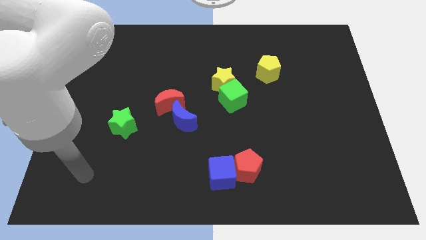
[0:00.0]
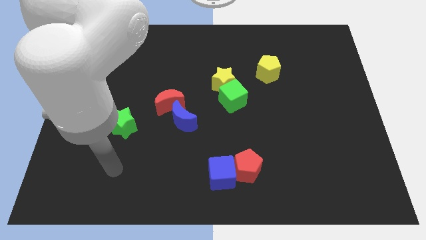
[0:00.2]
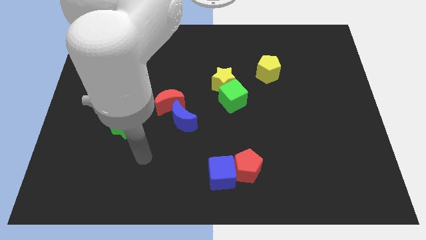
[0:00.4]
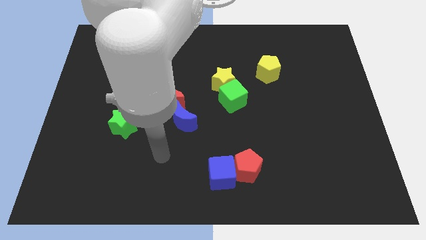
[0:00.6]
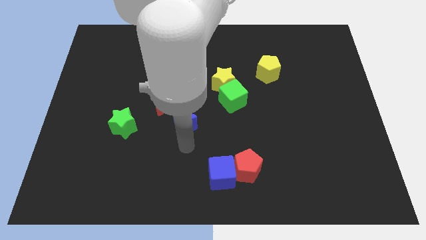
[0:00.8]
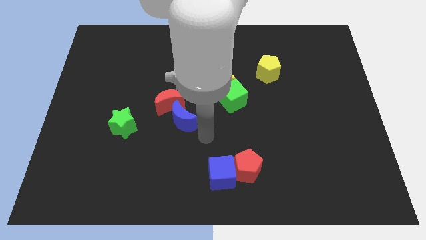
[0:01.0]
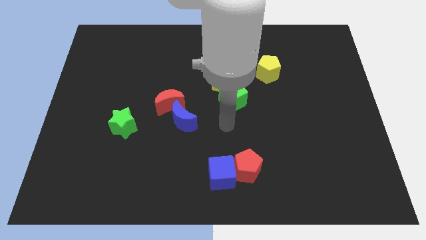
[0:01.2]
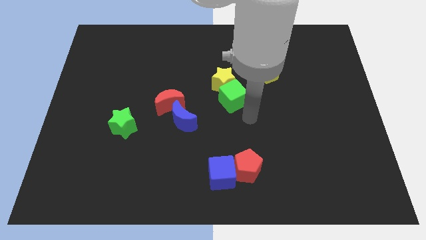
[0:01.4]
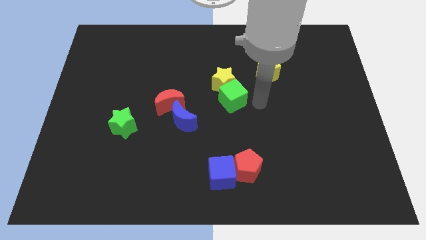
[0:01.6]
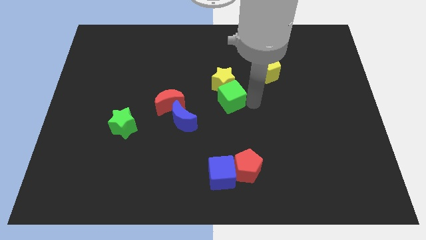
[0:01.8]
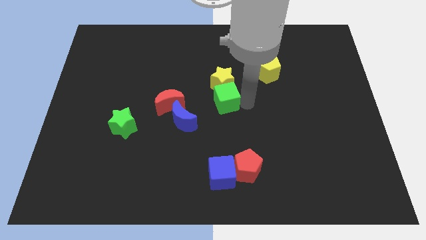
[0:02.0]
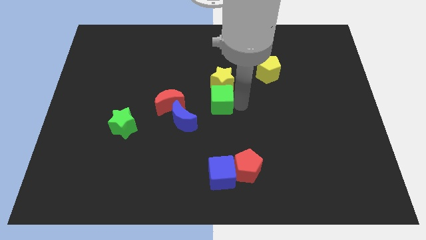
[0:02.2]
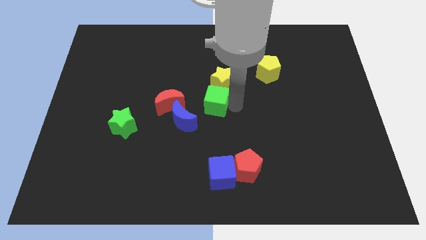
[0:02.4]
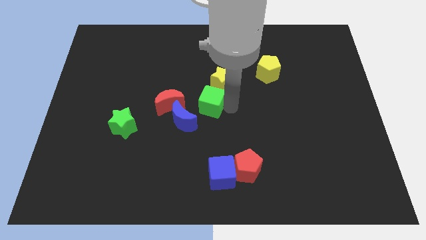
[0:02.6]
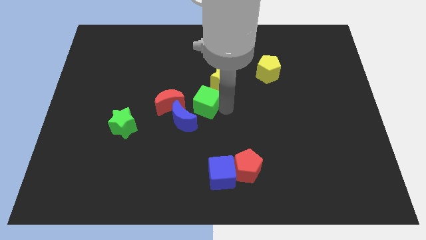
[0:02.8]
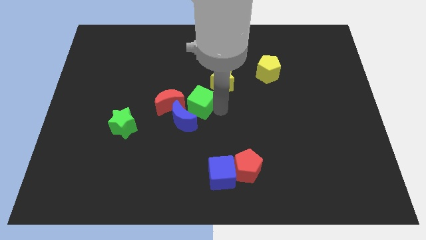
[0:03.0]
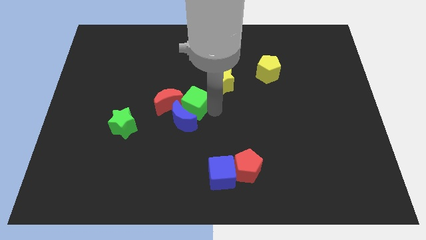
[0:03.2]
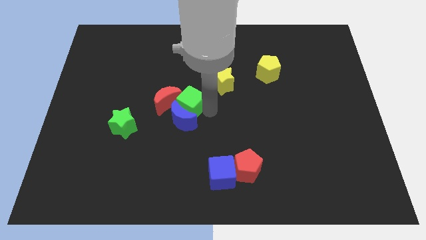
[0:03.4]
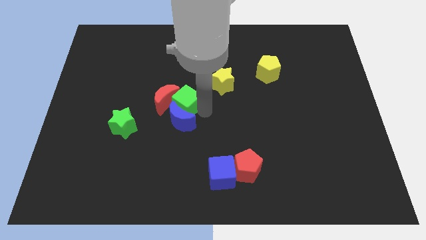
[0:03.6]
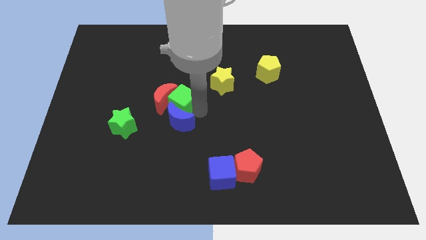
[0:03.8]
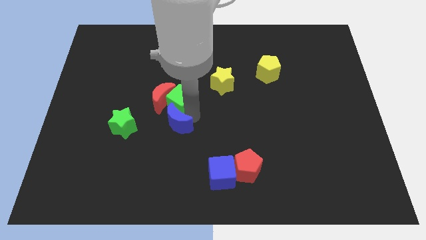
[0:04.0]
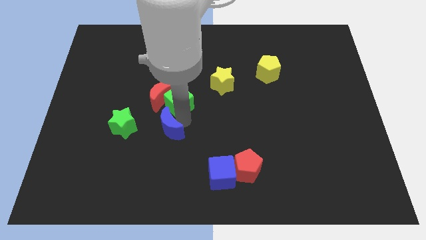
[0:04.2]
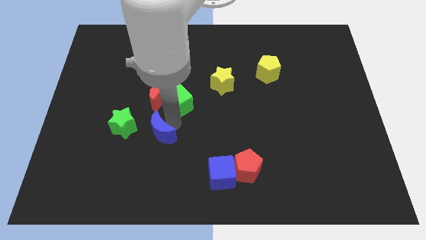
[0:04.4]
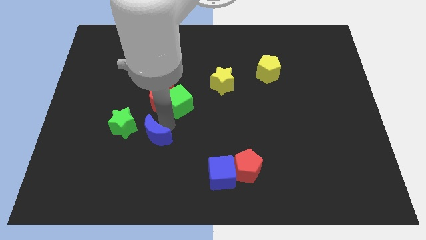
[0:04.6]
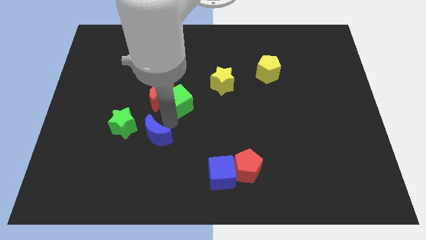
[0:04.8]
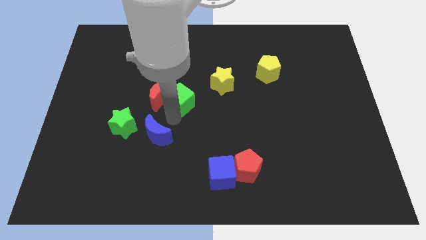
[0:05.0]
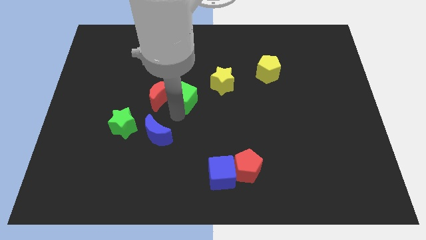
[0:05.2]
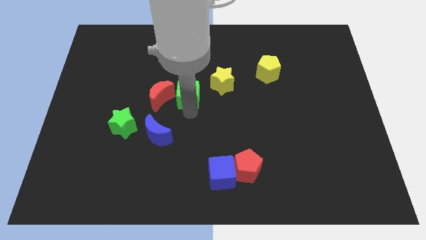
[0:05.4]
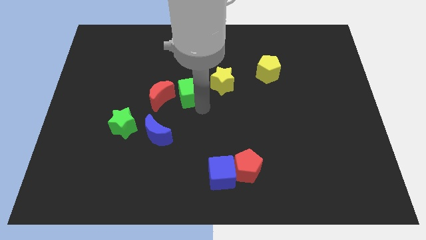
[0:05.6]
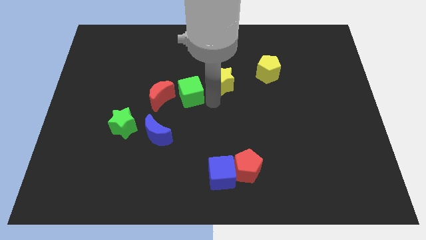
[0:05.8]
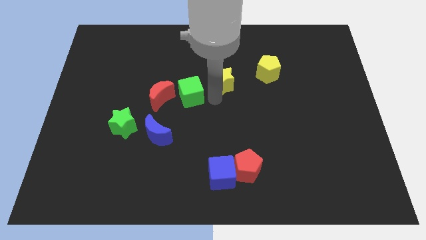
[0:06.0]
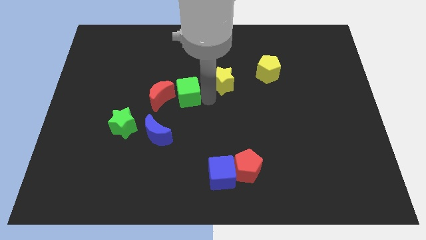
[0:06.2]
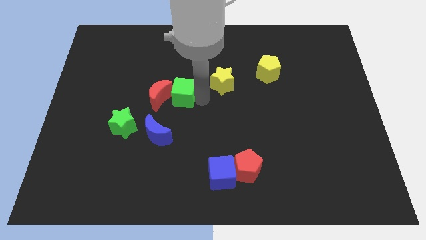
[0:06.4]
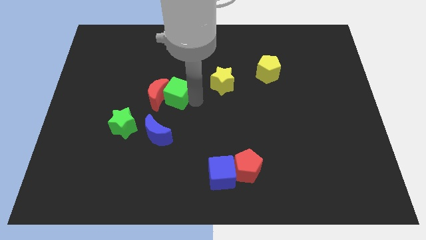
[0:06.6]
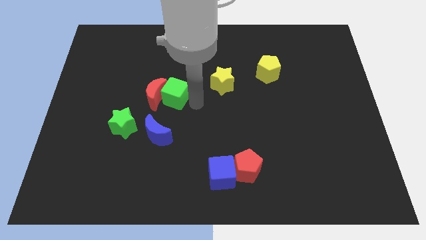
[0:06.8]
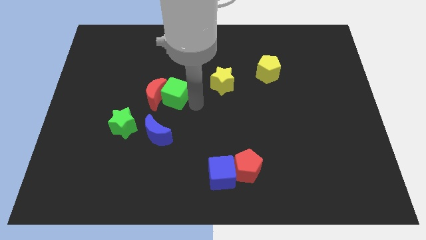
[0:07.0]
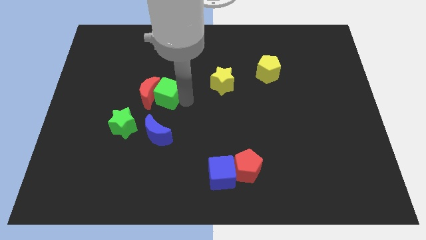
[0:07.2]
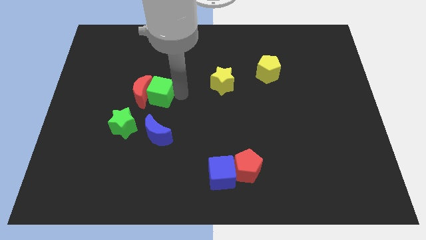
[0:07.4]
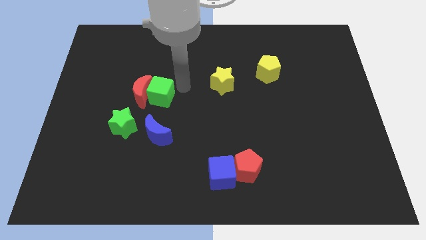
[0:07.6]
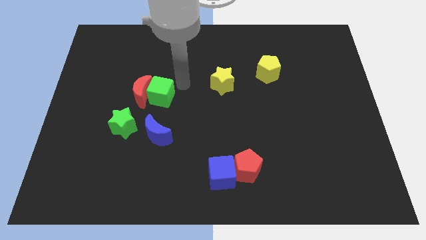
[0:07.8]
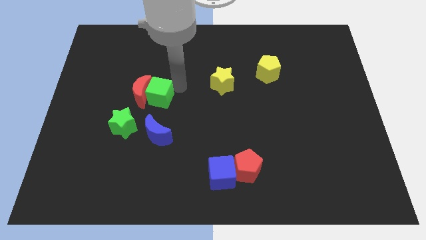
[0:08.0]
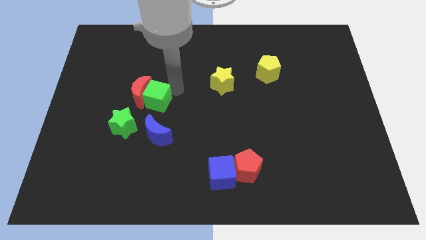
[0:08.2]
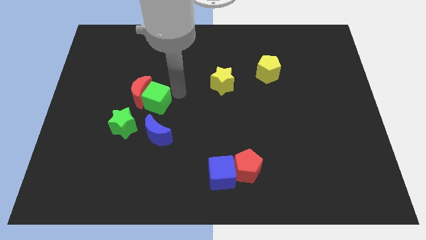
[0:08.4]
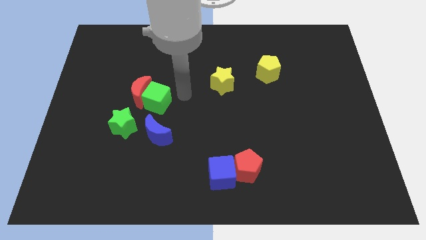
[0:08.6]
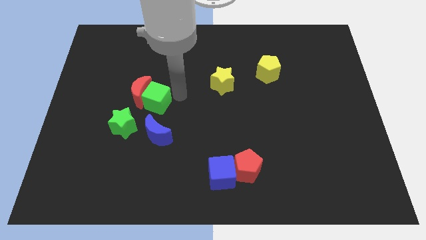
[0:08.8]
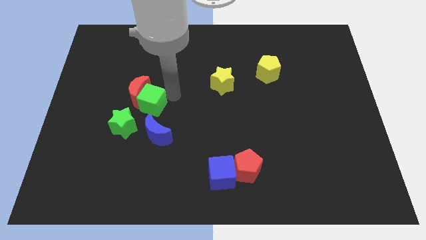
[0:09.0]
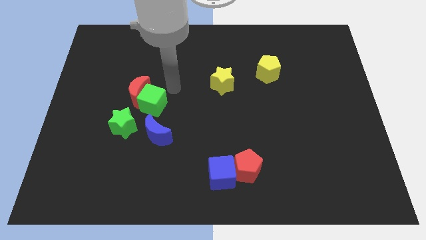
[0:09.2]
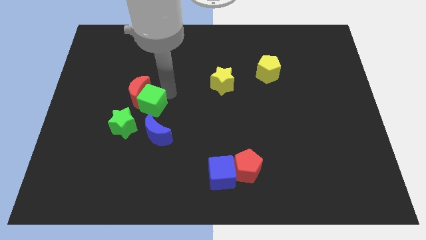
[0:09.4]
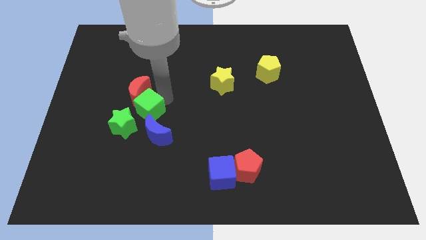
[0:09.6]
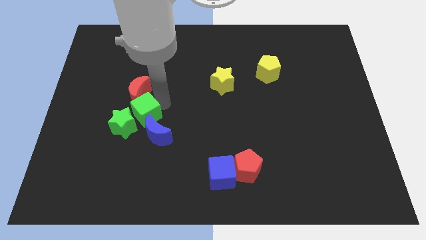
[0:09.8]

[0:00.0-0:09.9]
push the green cube to the green star

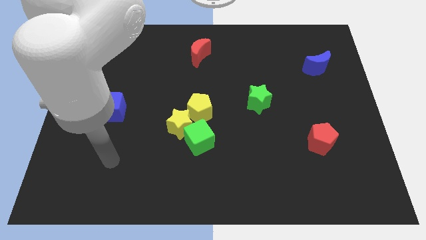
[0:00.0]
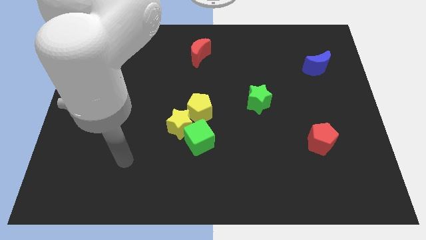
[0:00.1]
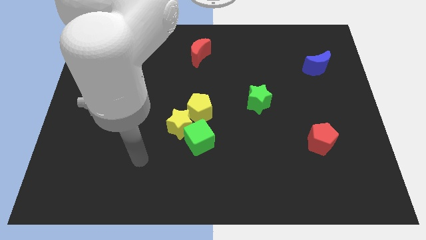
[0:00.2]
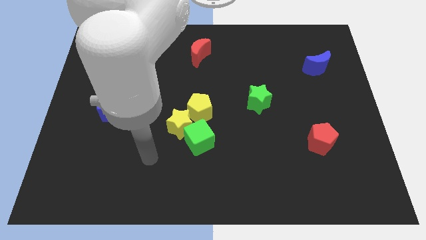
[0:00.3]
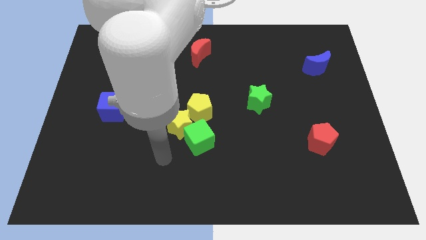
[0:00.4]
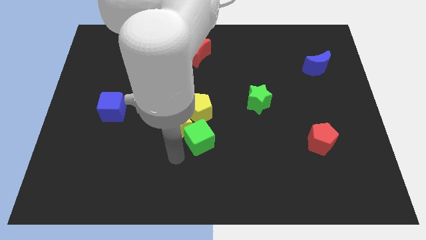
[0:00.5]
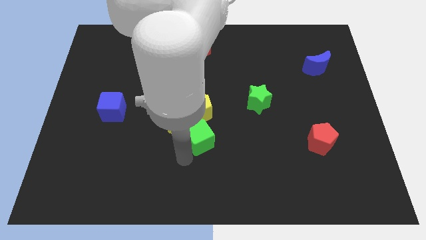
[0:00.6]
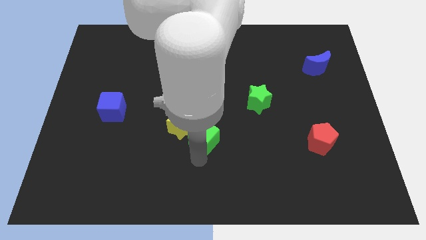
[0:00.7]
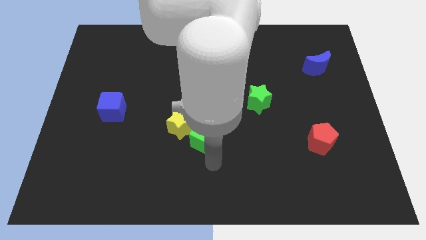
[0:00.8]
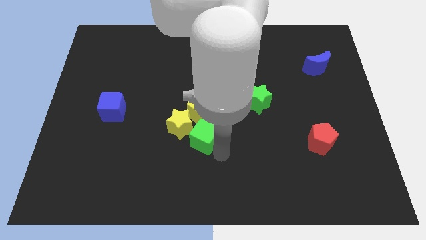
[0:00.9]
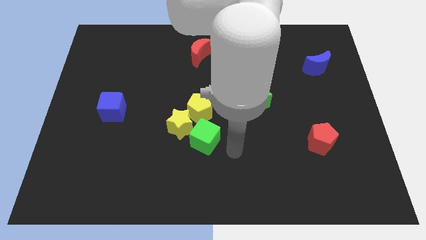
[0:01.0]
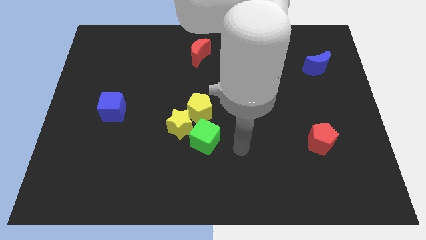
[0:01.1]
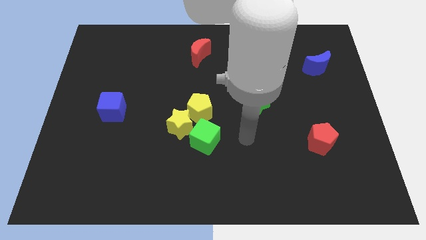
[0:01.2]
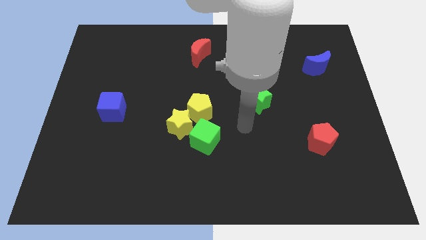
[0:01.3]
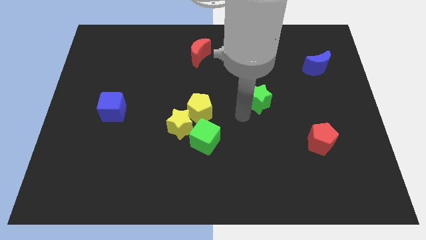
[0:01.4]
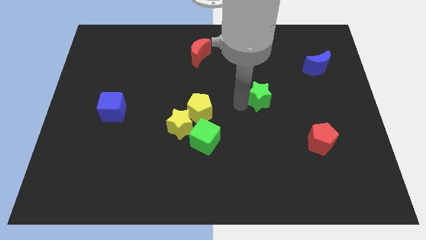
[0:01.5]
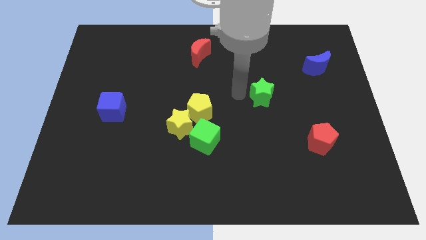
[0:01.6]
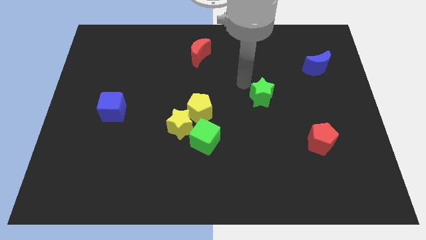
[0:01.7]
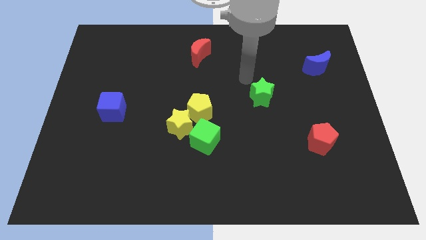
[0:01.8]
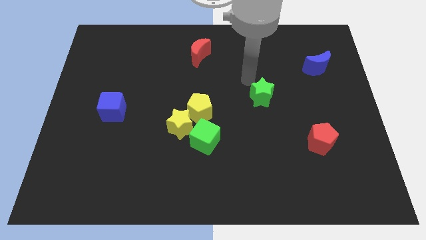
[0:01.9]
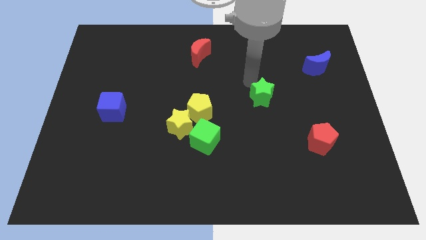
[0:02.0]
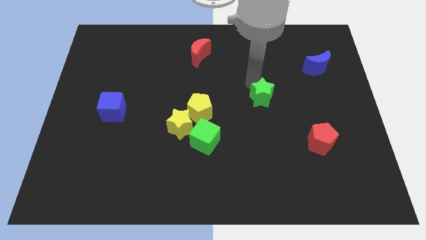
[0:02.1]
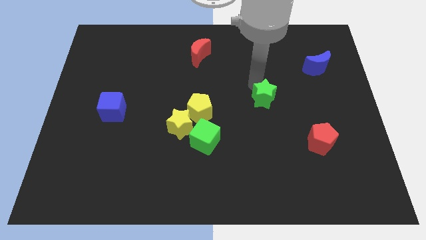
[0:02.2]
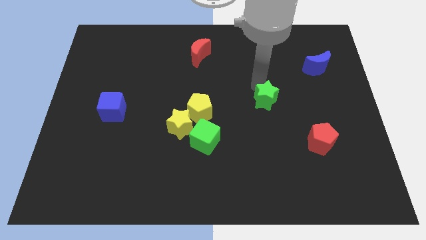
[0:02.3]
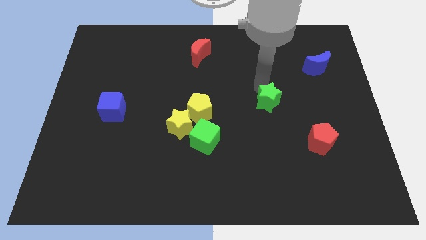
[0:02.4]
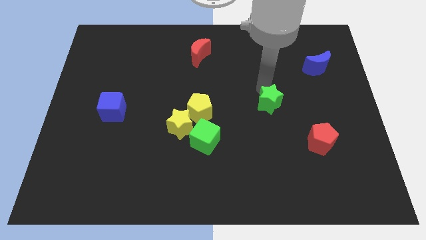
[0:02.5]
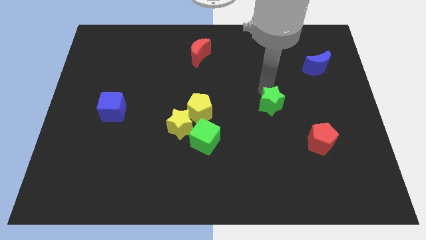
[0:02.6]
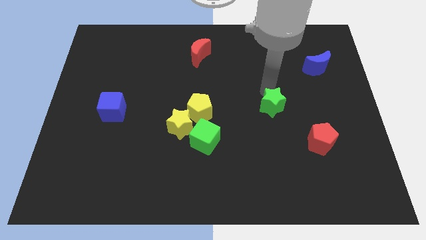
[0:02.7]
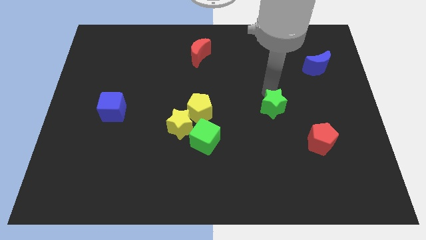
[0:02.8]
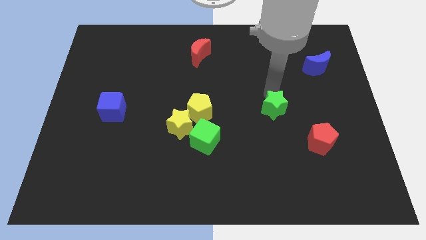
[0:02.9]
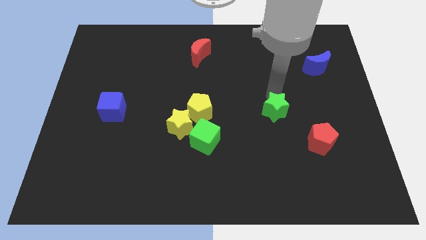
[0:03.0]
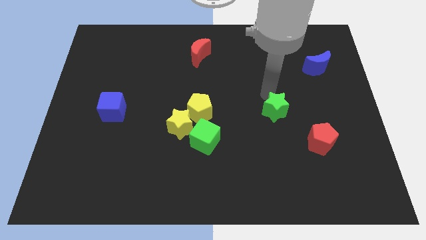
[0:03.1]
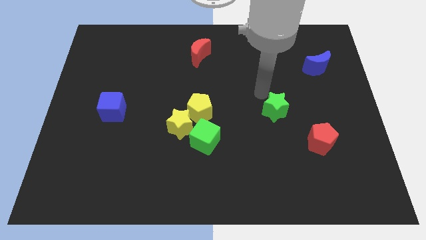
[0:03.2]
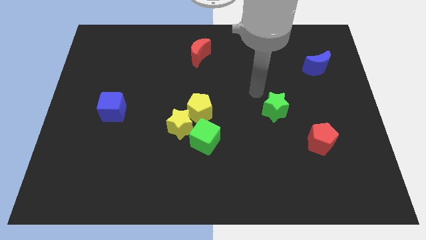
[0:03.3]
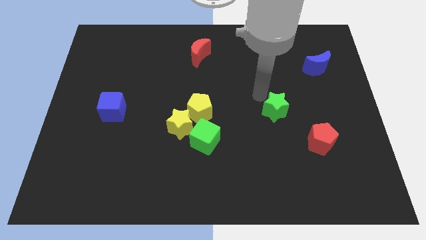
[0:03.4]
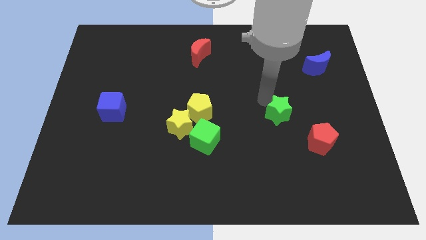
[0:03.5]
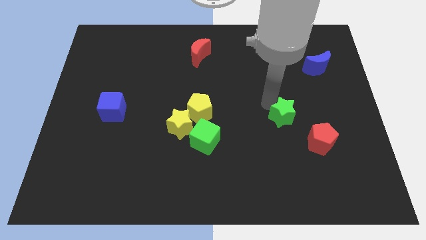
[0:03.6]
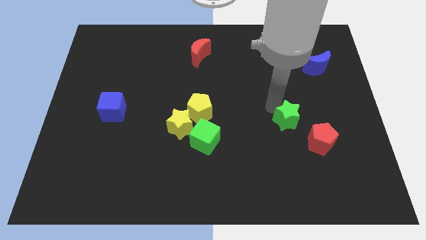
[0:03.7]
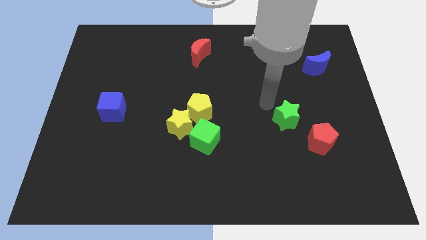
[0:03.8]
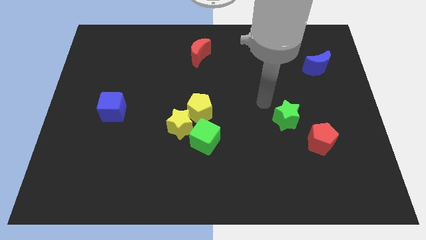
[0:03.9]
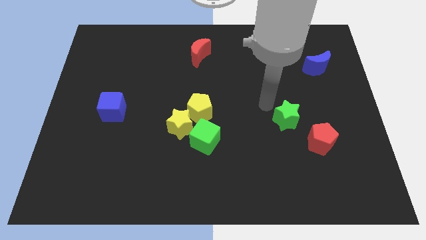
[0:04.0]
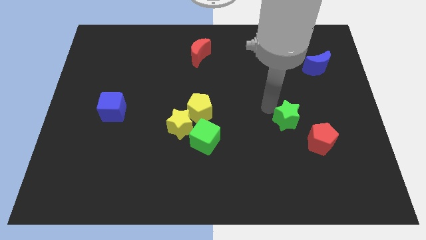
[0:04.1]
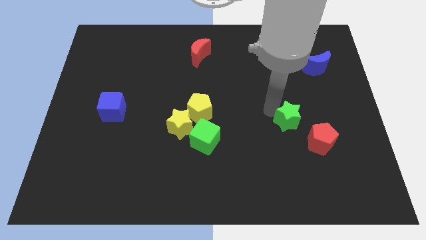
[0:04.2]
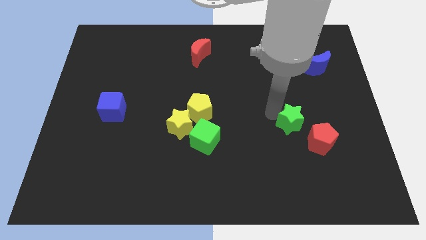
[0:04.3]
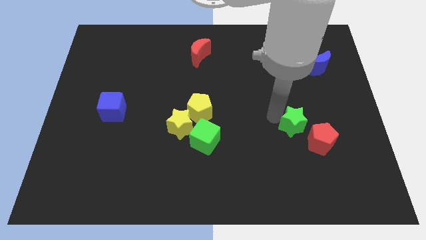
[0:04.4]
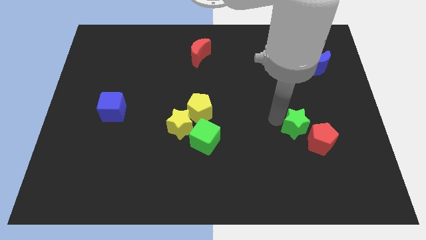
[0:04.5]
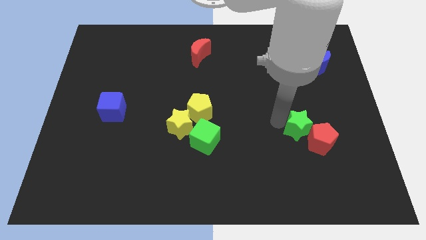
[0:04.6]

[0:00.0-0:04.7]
push the green star close to the red pentagon
